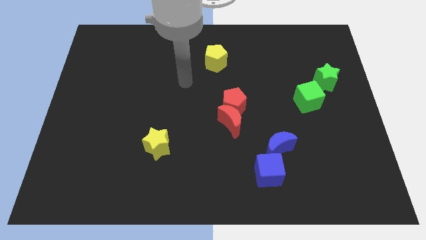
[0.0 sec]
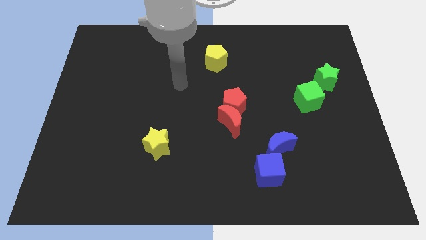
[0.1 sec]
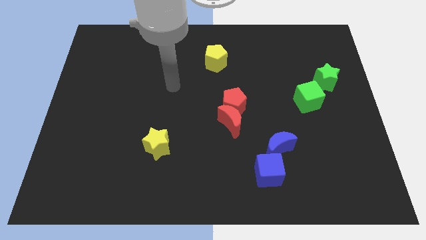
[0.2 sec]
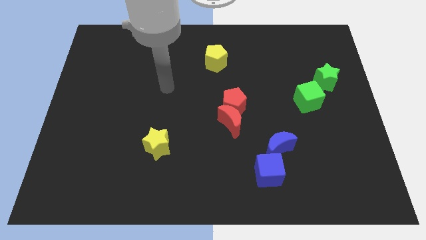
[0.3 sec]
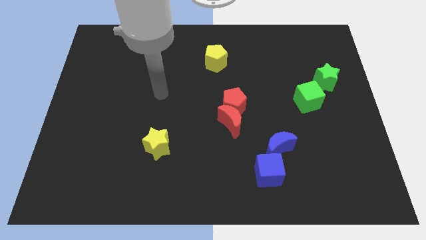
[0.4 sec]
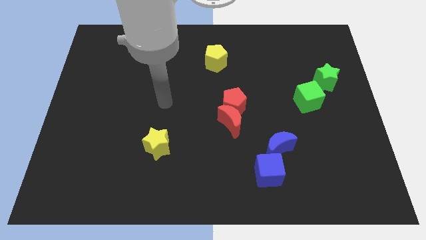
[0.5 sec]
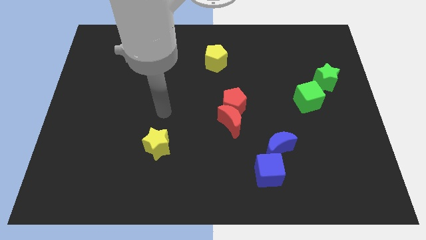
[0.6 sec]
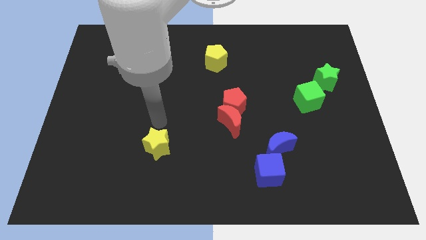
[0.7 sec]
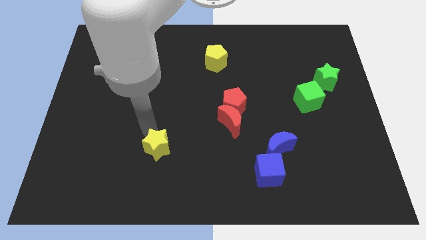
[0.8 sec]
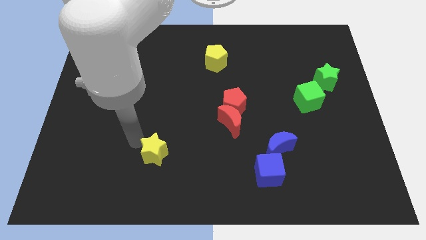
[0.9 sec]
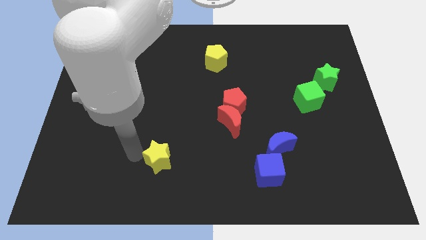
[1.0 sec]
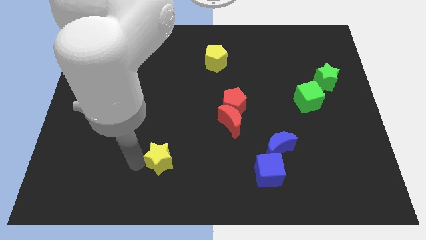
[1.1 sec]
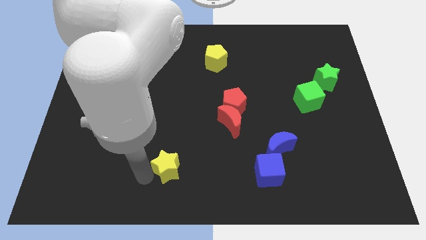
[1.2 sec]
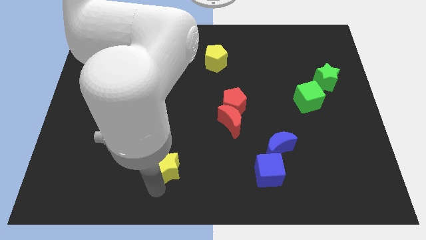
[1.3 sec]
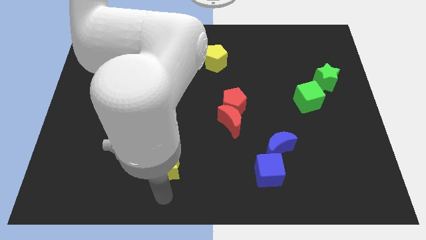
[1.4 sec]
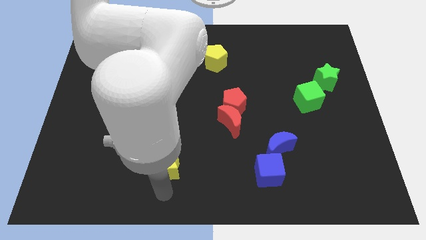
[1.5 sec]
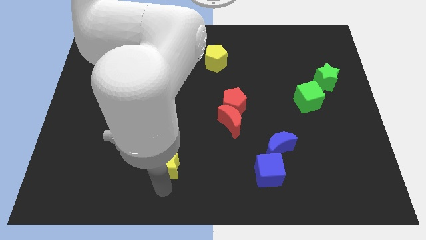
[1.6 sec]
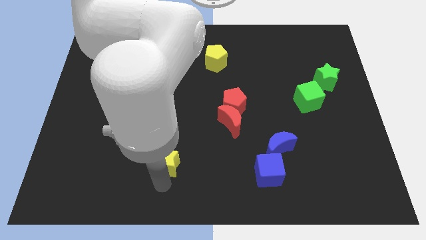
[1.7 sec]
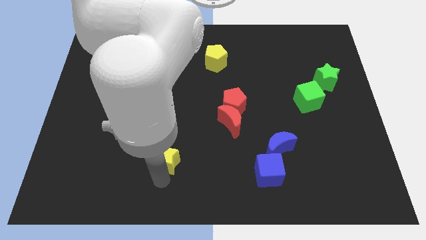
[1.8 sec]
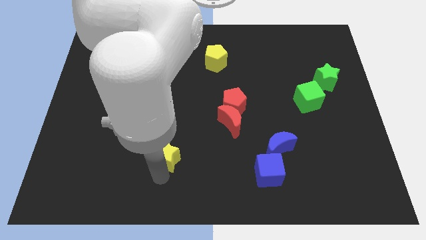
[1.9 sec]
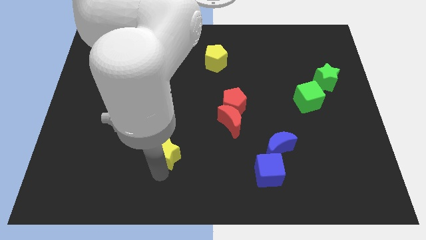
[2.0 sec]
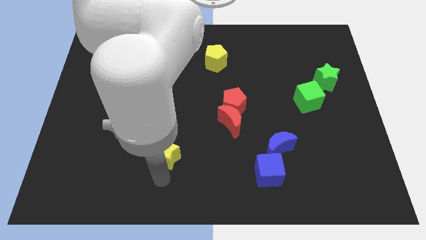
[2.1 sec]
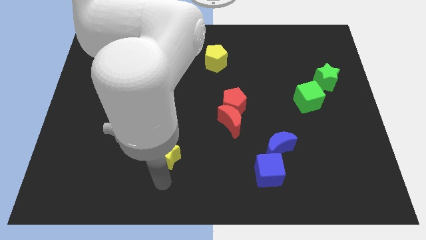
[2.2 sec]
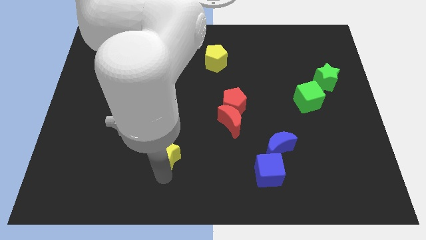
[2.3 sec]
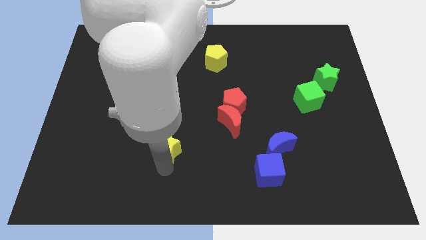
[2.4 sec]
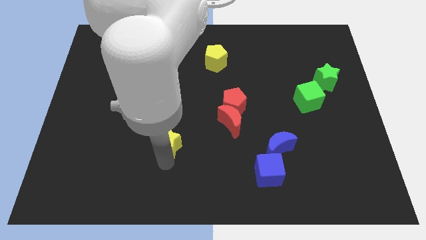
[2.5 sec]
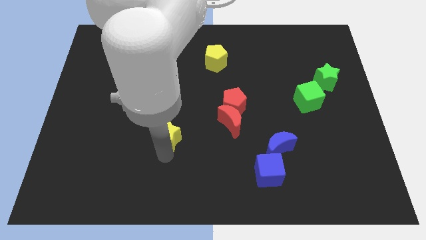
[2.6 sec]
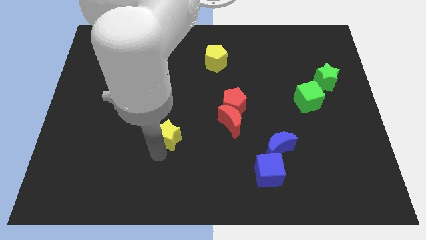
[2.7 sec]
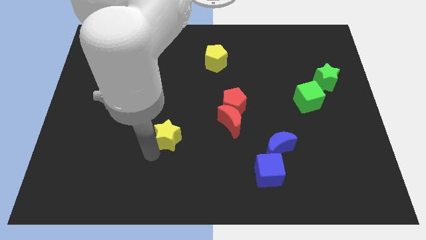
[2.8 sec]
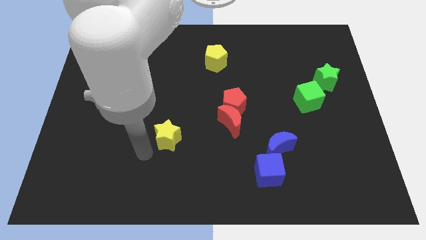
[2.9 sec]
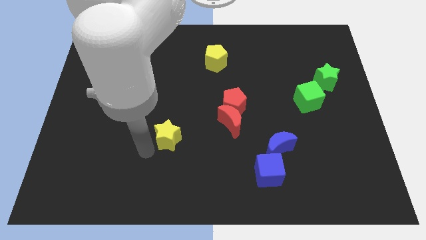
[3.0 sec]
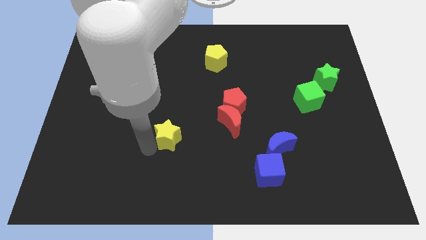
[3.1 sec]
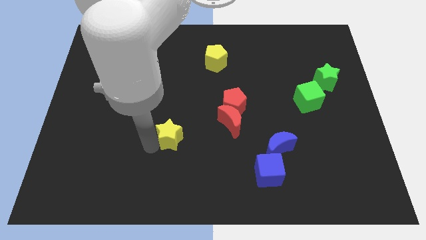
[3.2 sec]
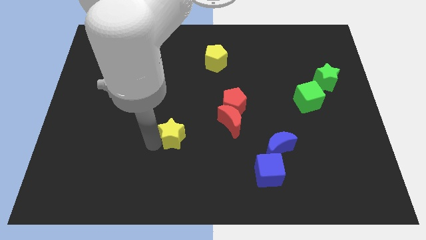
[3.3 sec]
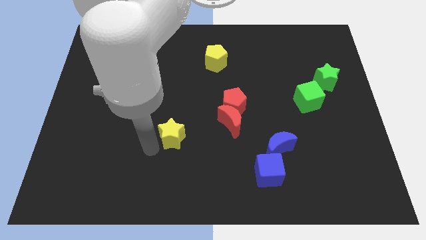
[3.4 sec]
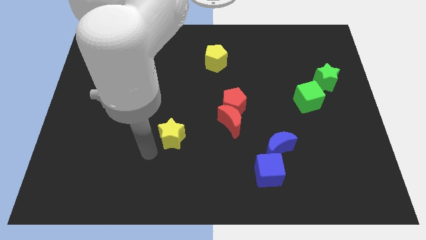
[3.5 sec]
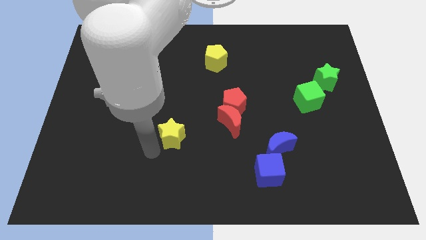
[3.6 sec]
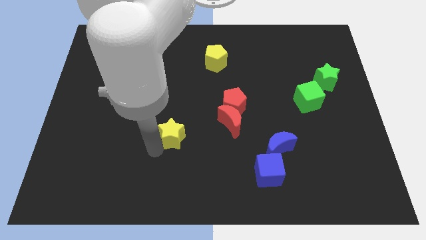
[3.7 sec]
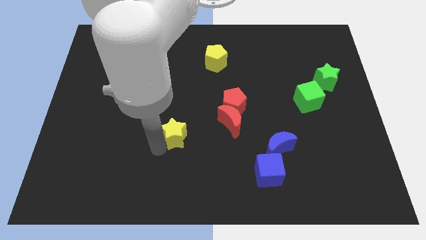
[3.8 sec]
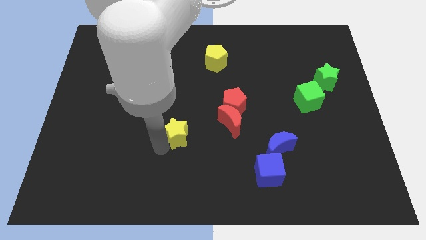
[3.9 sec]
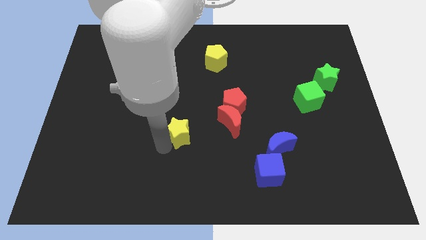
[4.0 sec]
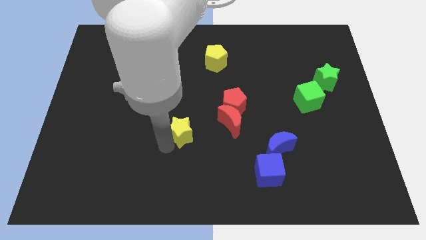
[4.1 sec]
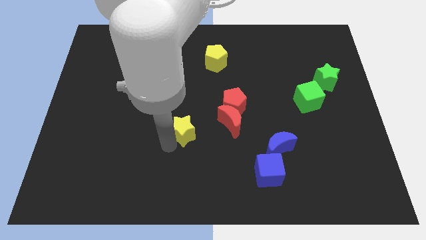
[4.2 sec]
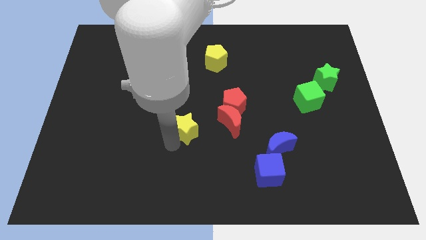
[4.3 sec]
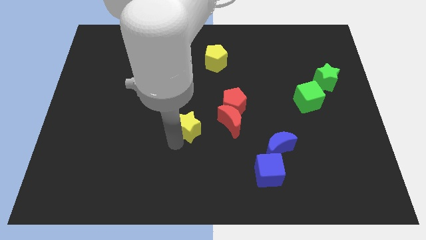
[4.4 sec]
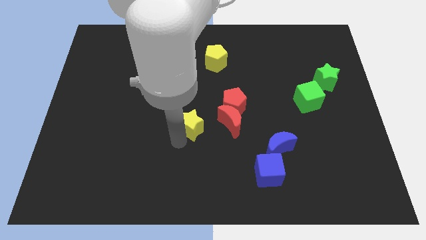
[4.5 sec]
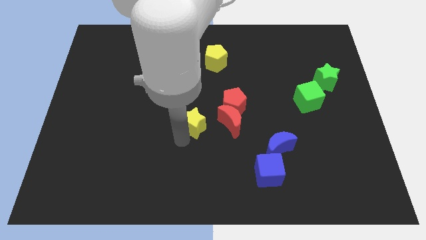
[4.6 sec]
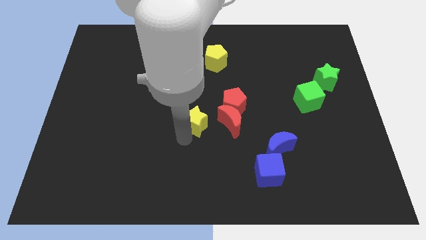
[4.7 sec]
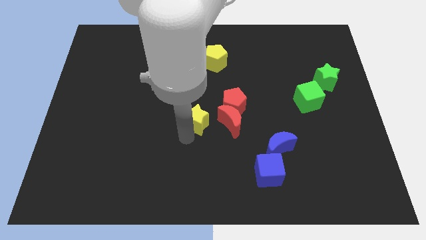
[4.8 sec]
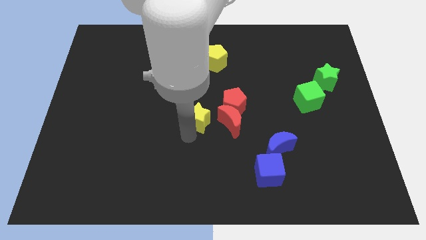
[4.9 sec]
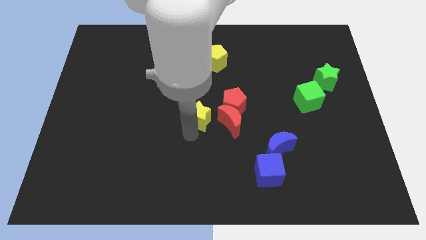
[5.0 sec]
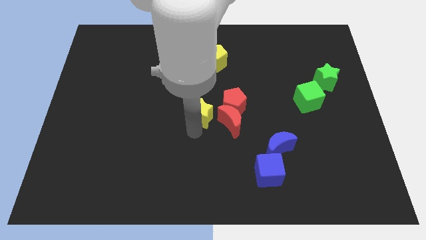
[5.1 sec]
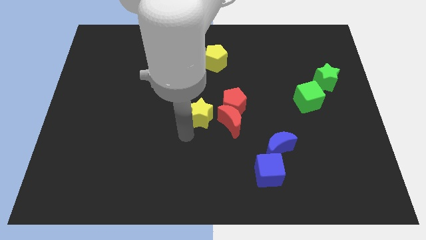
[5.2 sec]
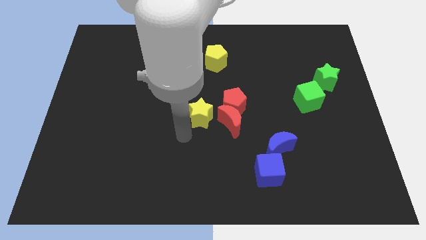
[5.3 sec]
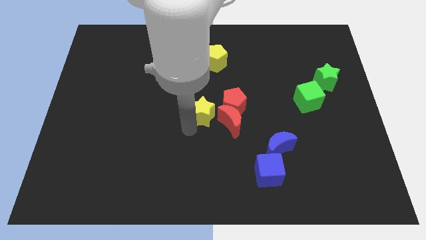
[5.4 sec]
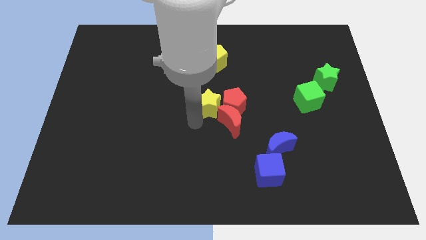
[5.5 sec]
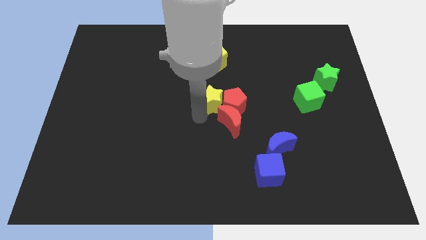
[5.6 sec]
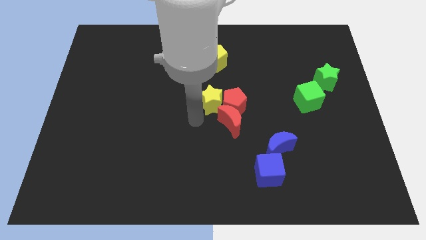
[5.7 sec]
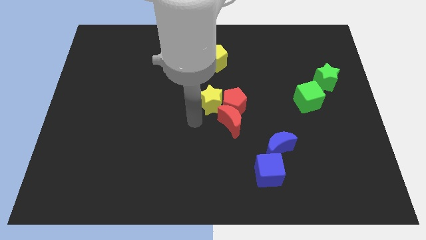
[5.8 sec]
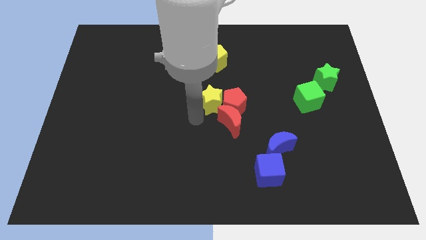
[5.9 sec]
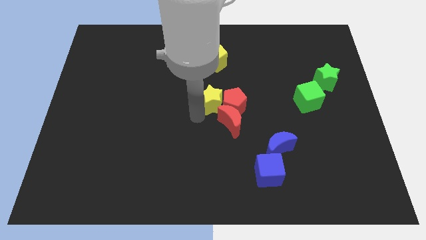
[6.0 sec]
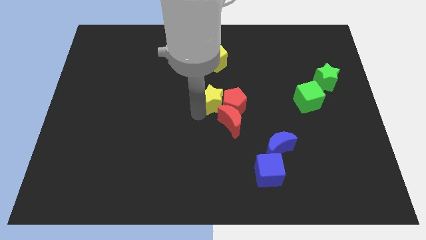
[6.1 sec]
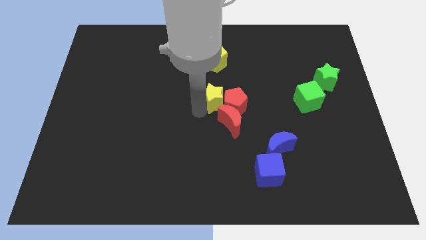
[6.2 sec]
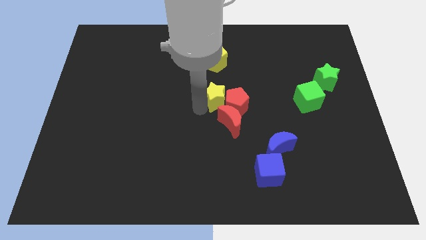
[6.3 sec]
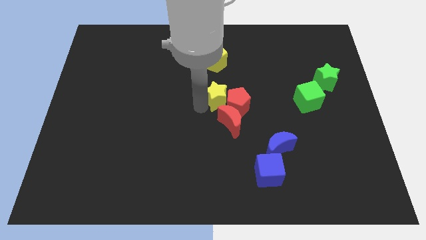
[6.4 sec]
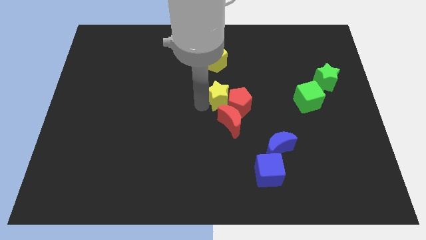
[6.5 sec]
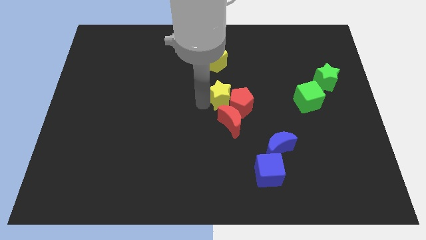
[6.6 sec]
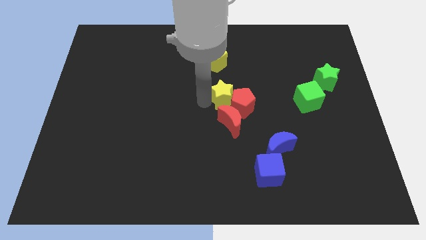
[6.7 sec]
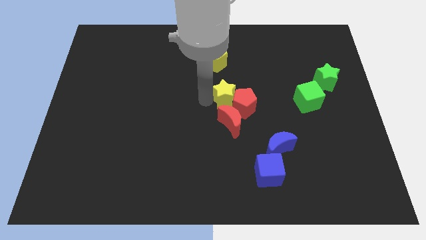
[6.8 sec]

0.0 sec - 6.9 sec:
push the yellow star up and right

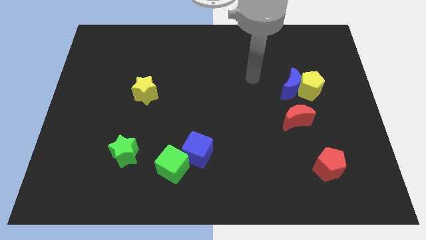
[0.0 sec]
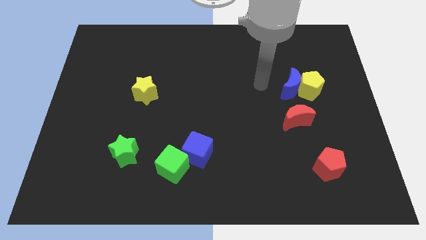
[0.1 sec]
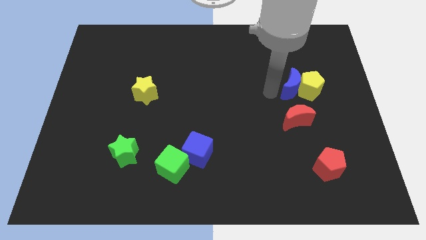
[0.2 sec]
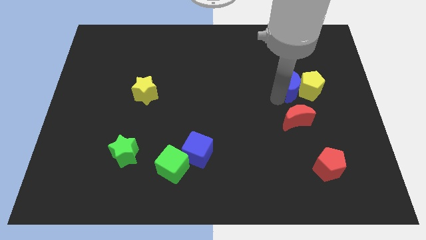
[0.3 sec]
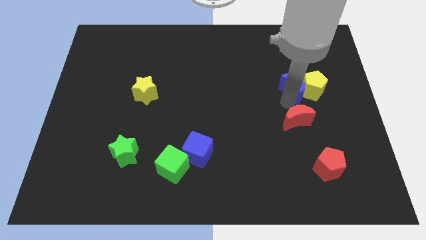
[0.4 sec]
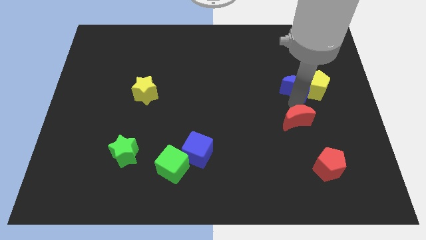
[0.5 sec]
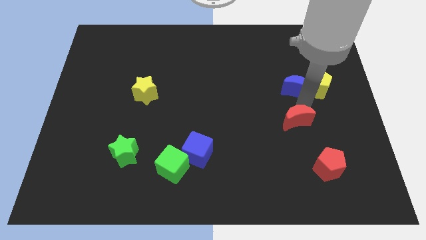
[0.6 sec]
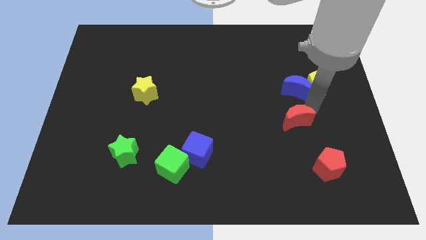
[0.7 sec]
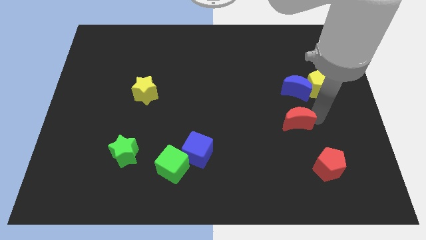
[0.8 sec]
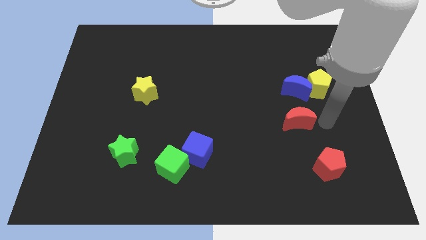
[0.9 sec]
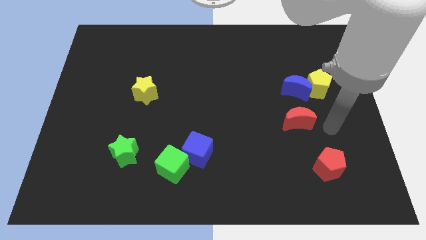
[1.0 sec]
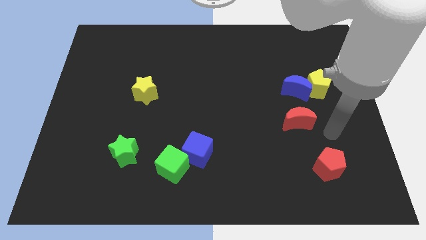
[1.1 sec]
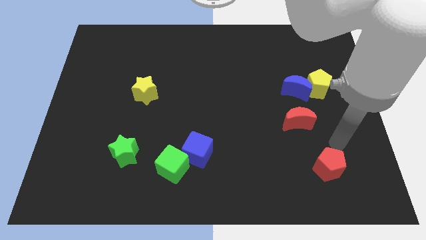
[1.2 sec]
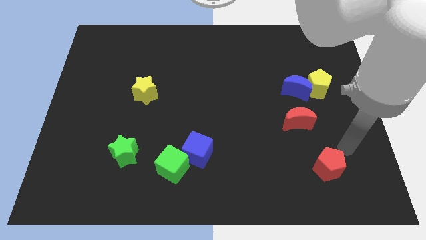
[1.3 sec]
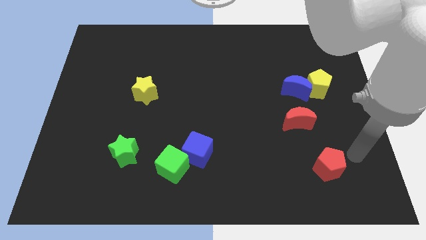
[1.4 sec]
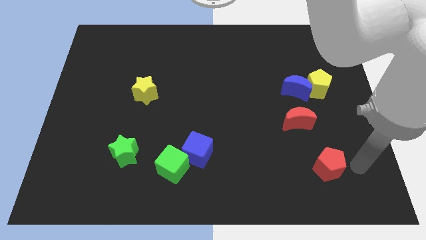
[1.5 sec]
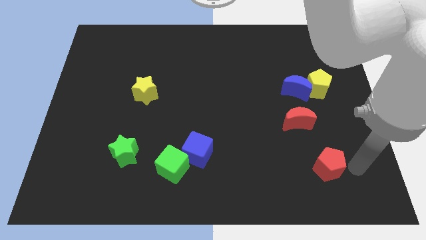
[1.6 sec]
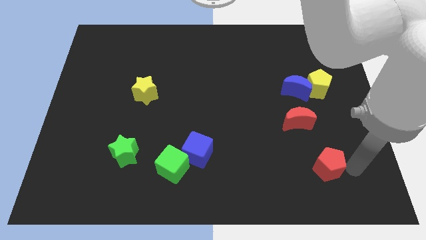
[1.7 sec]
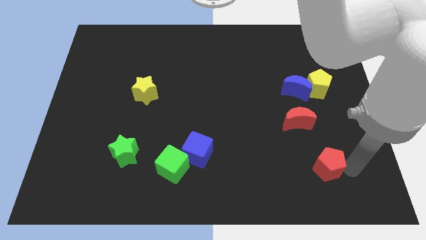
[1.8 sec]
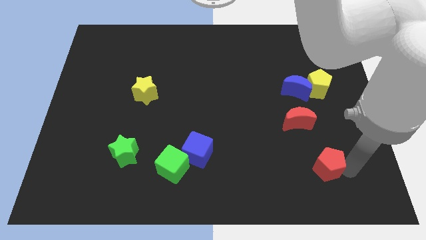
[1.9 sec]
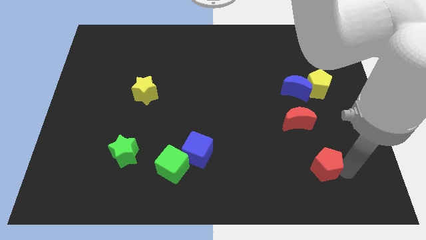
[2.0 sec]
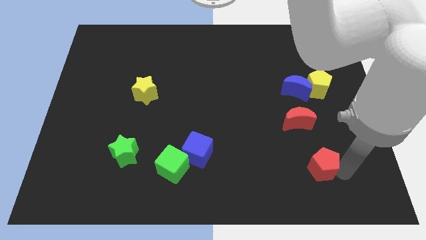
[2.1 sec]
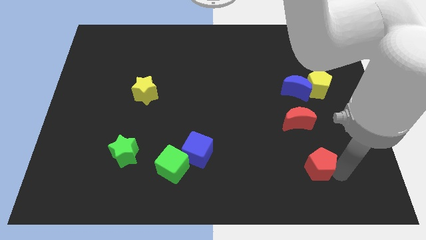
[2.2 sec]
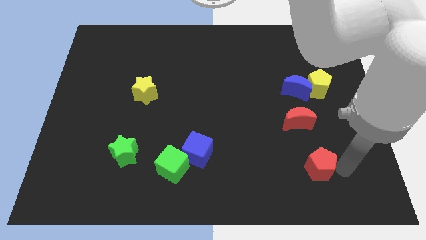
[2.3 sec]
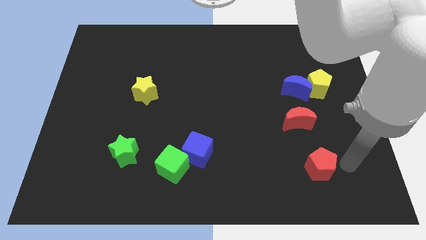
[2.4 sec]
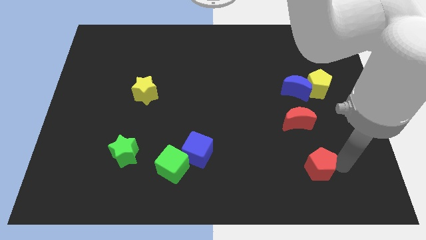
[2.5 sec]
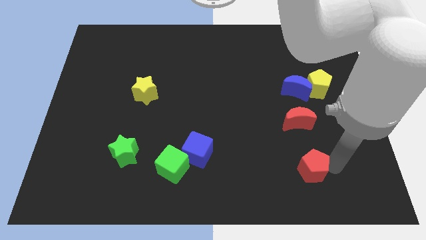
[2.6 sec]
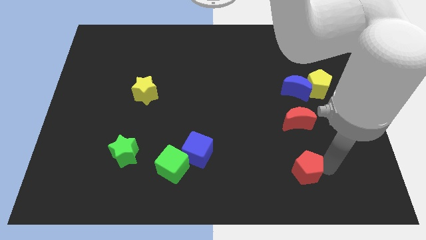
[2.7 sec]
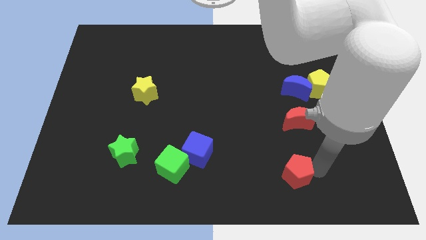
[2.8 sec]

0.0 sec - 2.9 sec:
push the red pentagon a bit to the left
